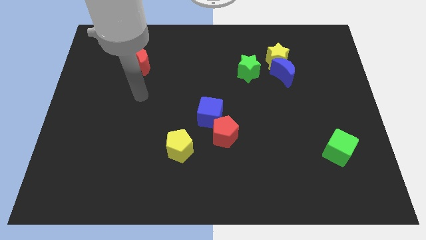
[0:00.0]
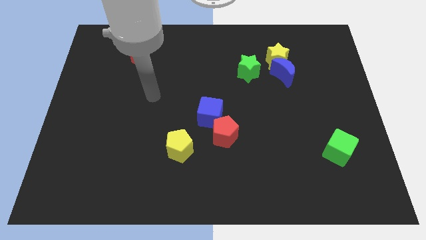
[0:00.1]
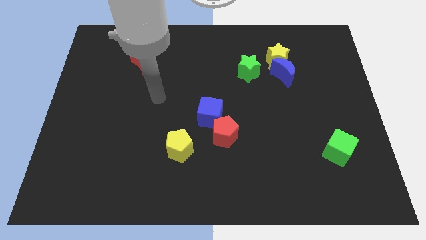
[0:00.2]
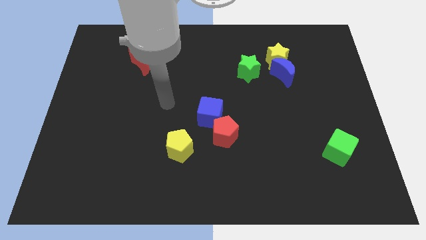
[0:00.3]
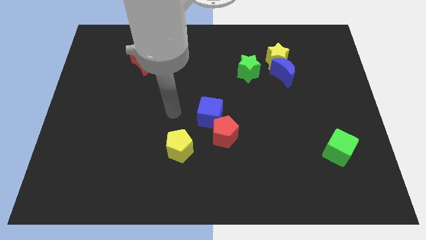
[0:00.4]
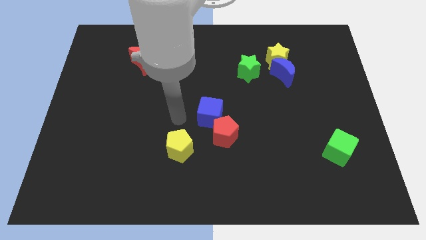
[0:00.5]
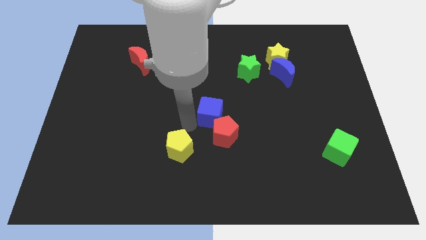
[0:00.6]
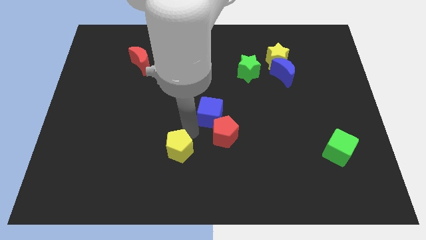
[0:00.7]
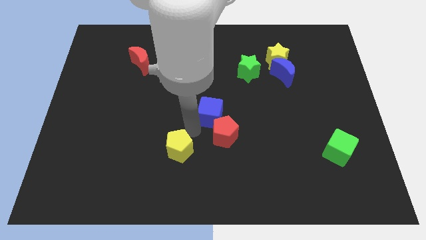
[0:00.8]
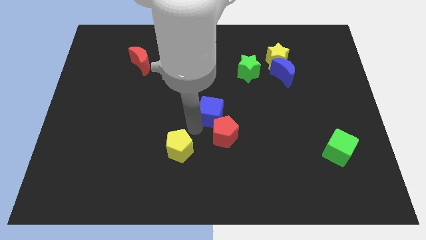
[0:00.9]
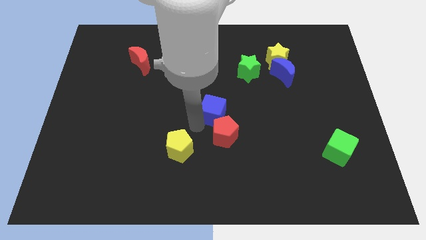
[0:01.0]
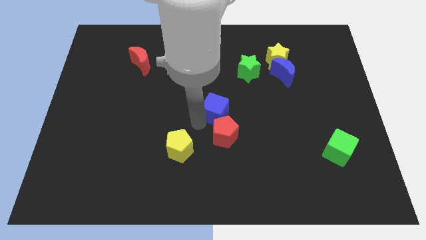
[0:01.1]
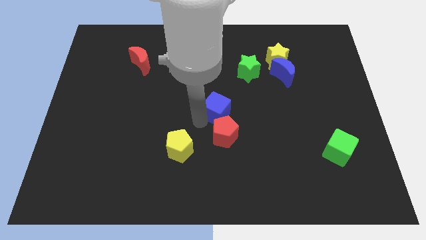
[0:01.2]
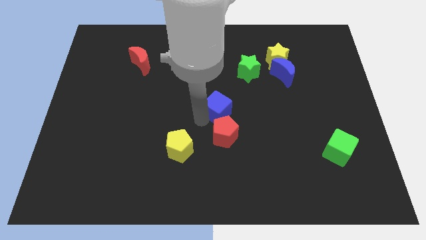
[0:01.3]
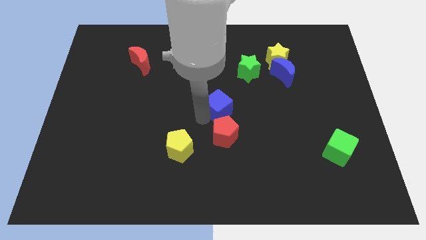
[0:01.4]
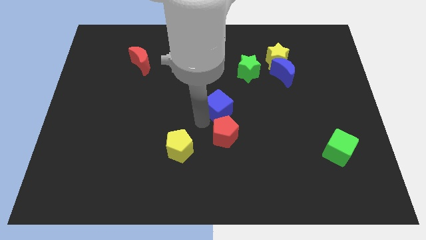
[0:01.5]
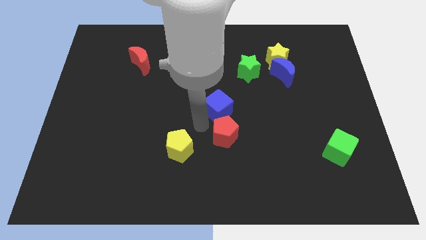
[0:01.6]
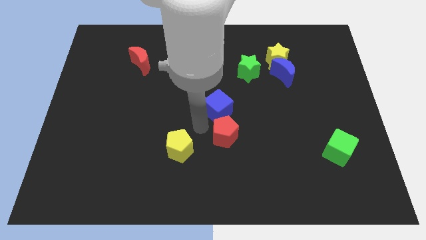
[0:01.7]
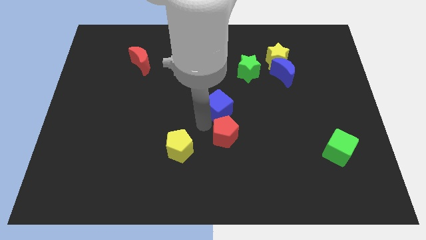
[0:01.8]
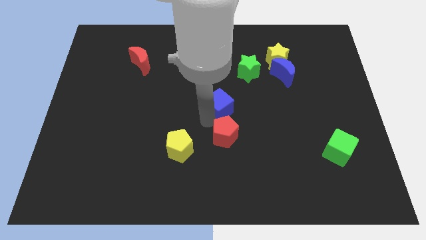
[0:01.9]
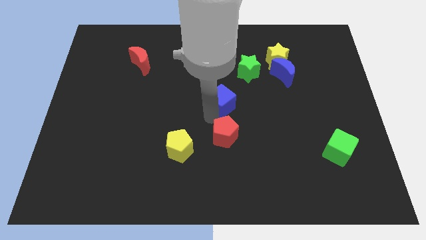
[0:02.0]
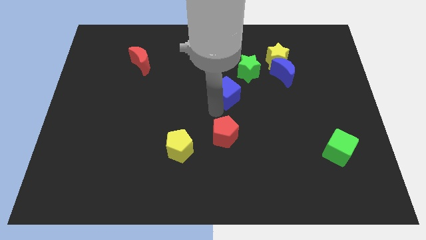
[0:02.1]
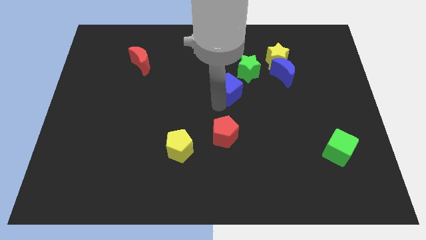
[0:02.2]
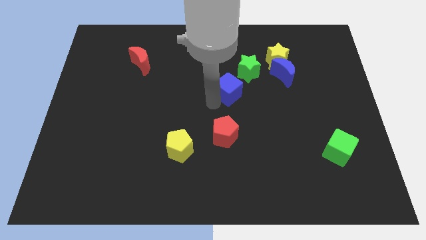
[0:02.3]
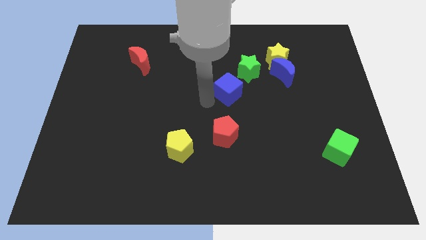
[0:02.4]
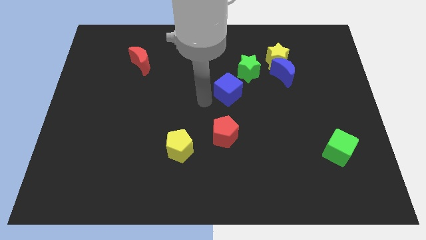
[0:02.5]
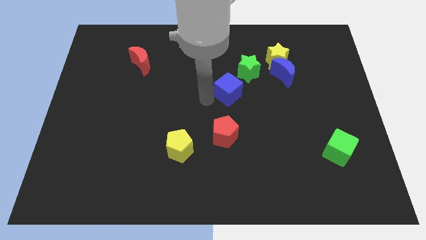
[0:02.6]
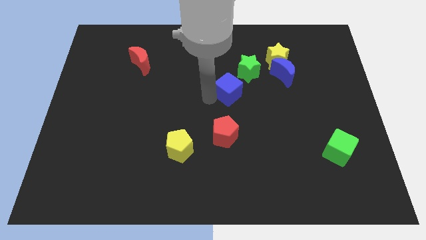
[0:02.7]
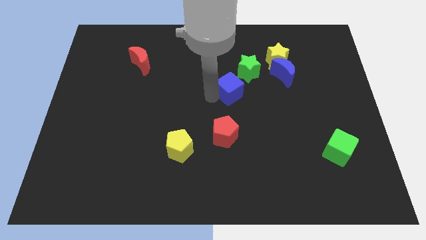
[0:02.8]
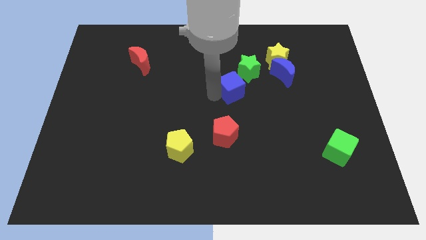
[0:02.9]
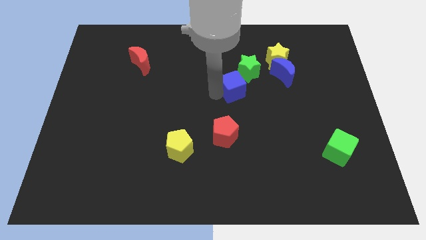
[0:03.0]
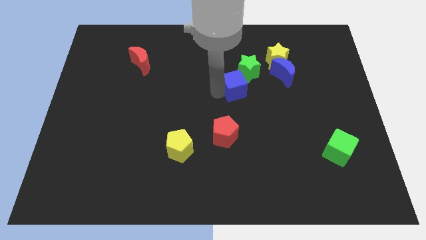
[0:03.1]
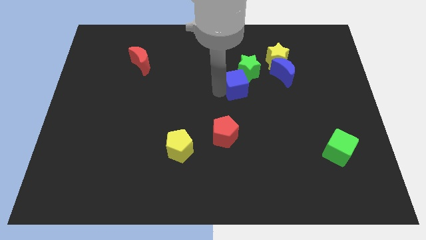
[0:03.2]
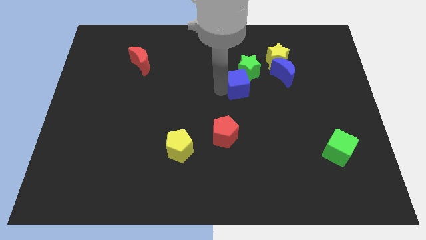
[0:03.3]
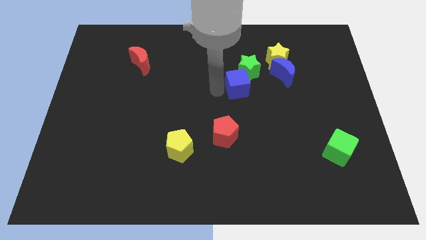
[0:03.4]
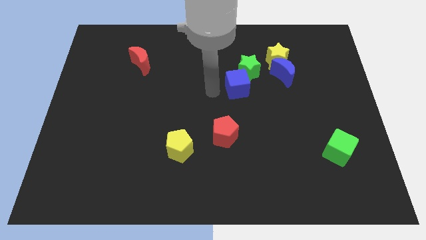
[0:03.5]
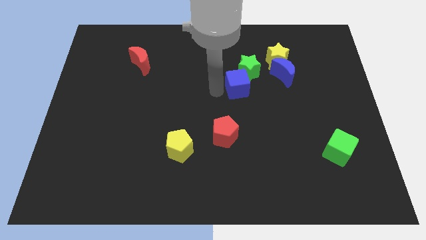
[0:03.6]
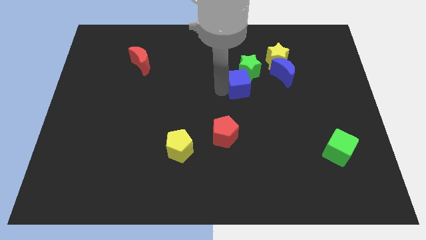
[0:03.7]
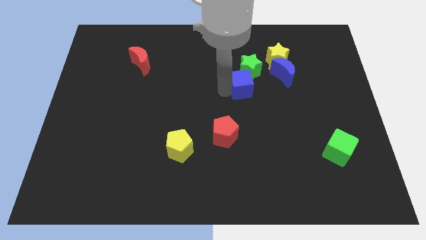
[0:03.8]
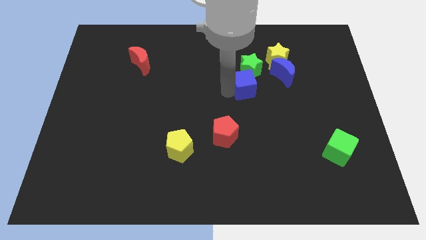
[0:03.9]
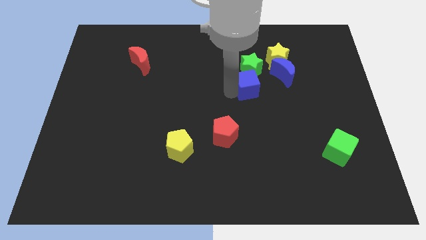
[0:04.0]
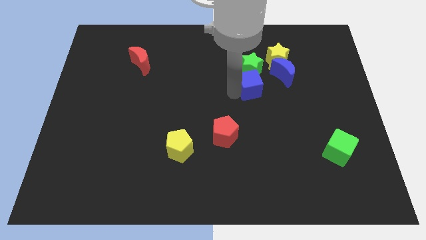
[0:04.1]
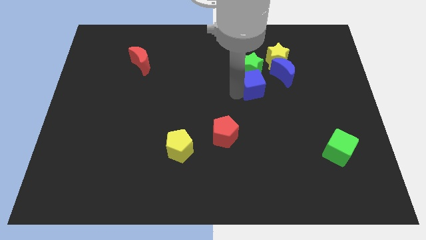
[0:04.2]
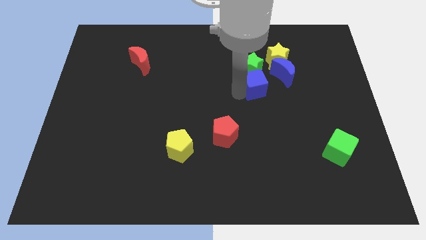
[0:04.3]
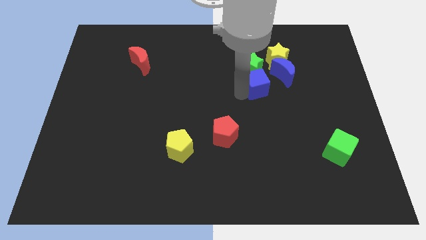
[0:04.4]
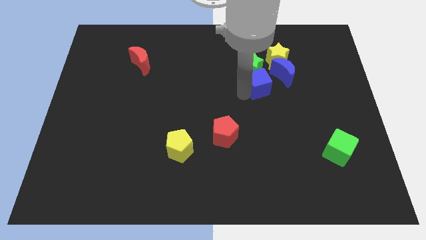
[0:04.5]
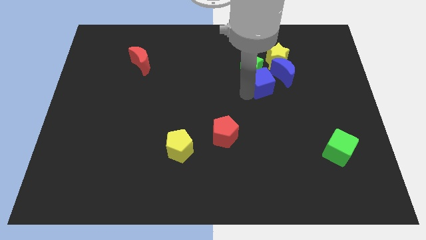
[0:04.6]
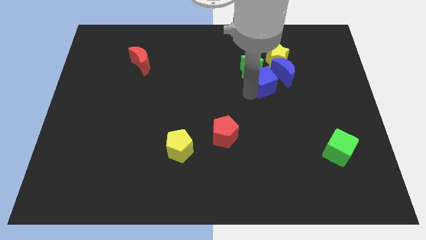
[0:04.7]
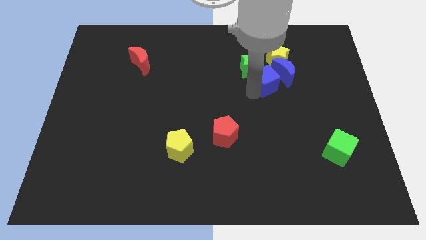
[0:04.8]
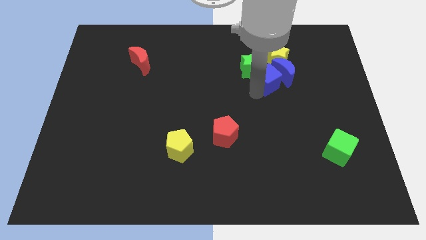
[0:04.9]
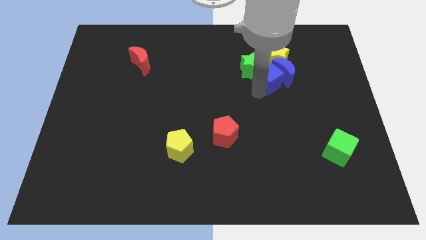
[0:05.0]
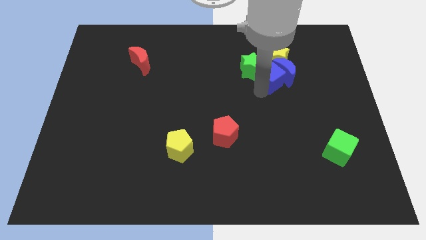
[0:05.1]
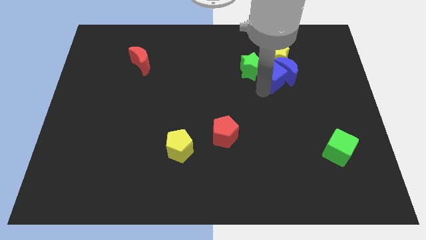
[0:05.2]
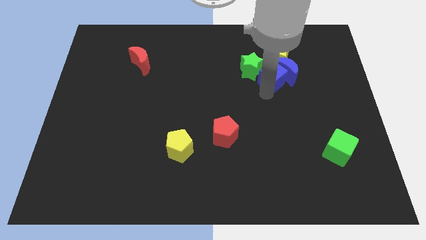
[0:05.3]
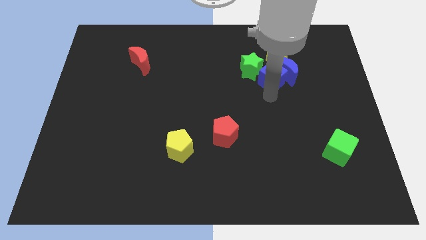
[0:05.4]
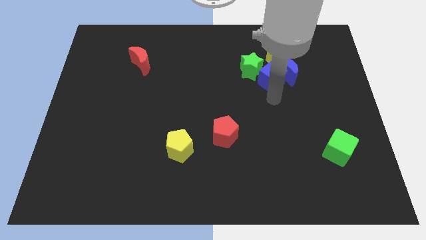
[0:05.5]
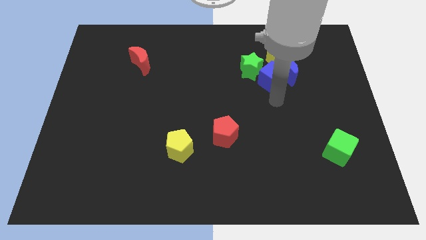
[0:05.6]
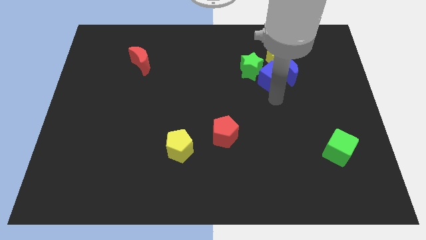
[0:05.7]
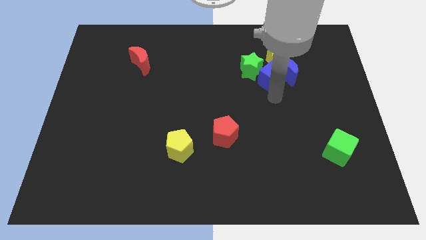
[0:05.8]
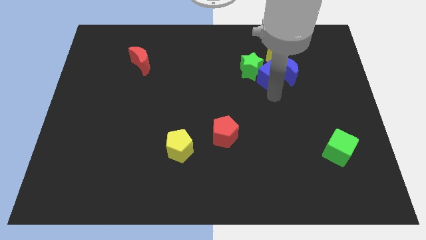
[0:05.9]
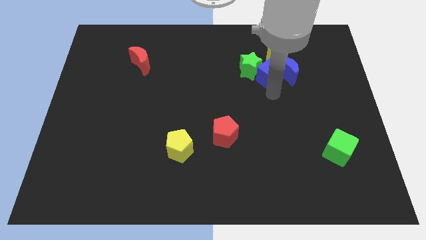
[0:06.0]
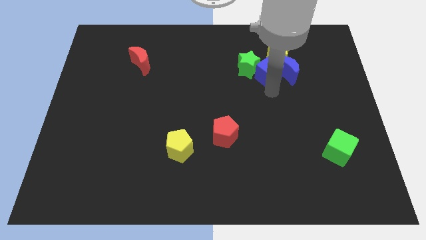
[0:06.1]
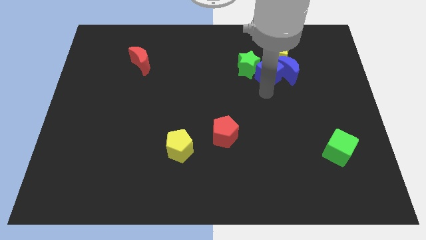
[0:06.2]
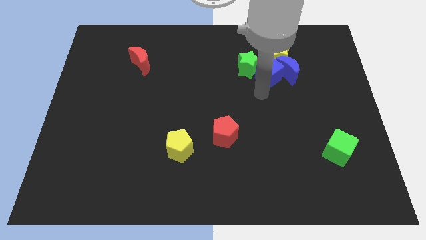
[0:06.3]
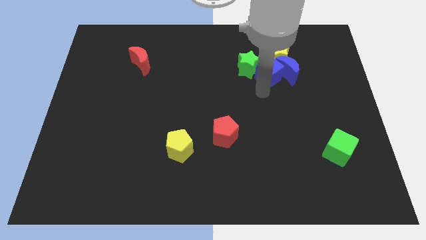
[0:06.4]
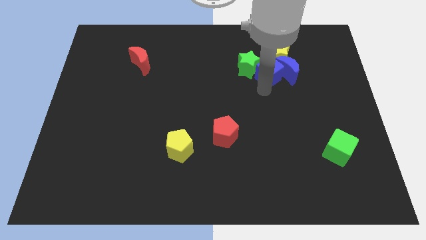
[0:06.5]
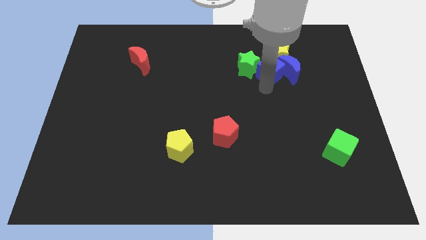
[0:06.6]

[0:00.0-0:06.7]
push the blue cube next to the yellow star

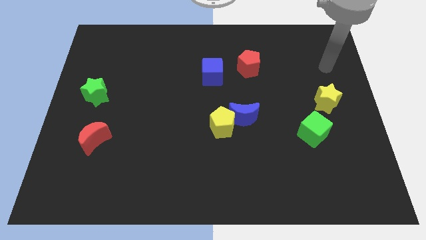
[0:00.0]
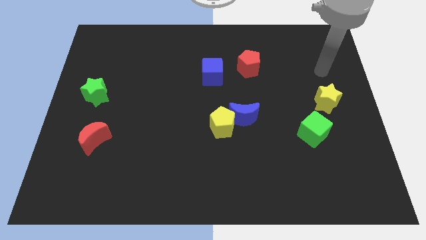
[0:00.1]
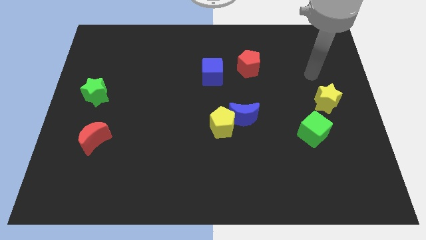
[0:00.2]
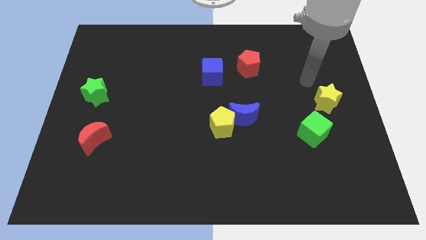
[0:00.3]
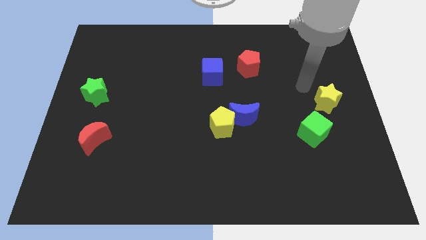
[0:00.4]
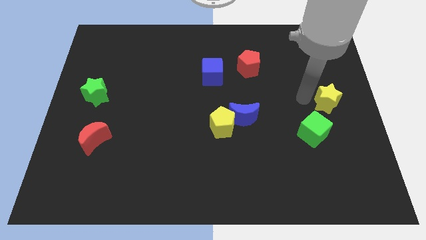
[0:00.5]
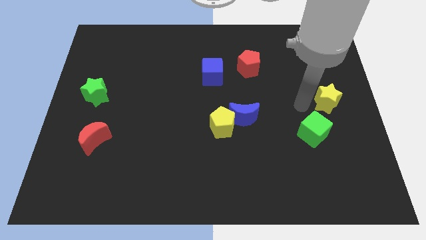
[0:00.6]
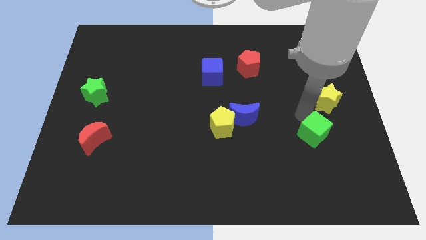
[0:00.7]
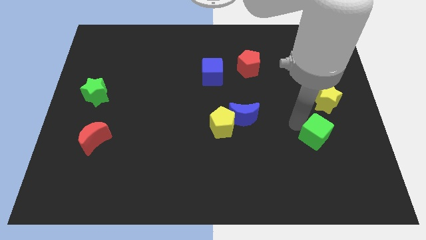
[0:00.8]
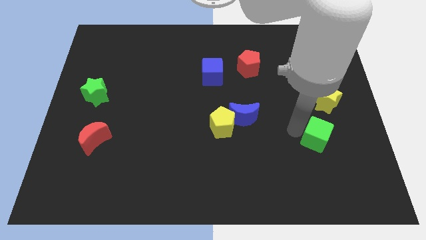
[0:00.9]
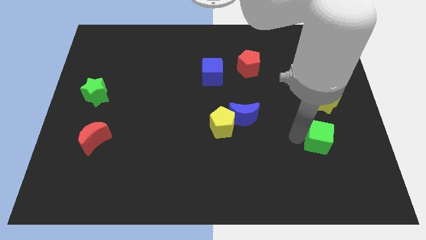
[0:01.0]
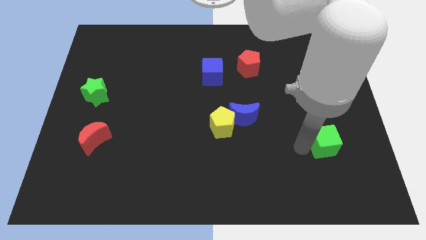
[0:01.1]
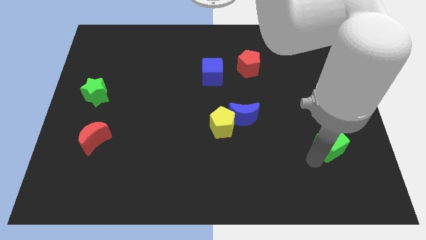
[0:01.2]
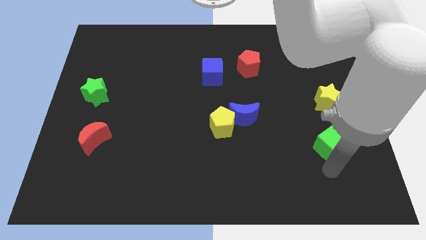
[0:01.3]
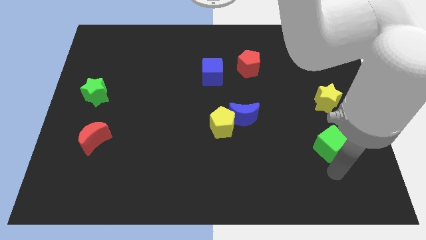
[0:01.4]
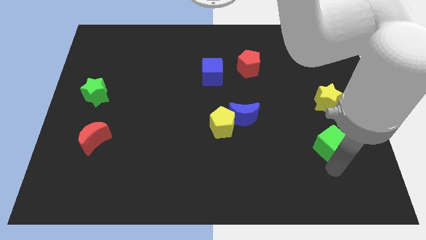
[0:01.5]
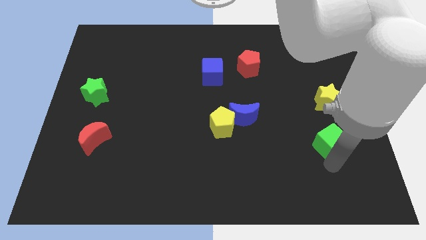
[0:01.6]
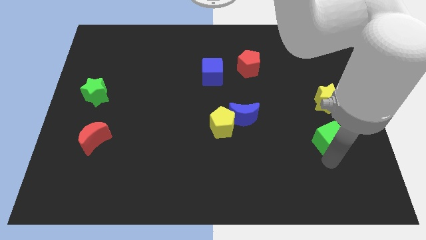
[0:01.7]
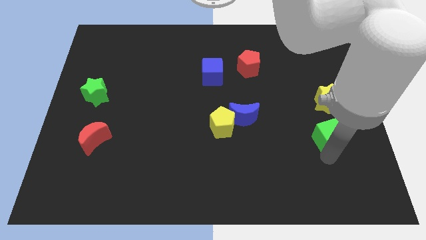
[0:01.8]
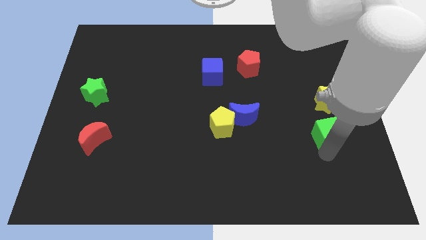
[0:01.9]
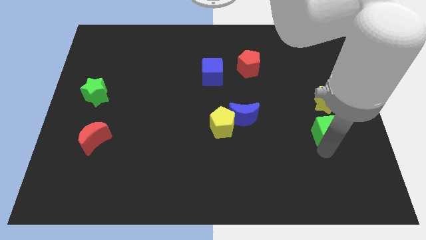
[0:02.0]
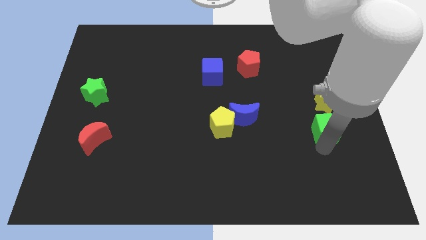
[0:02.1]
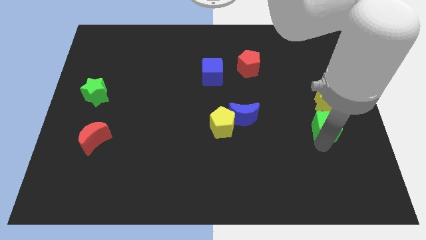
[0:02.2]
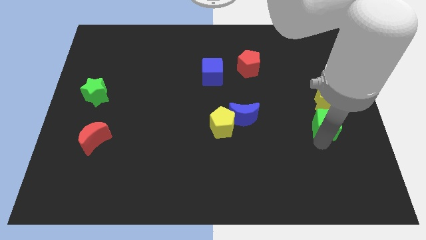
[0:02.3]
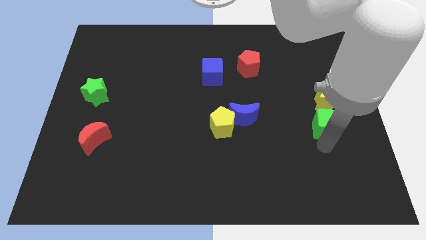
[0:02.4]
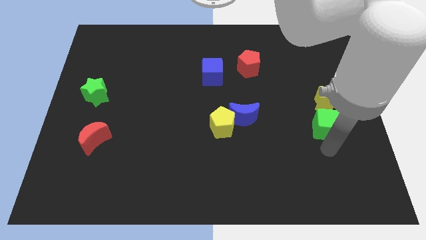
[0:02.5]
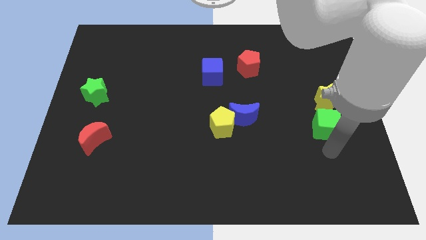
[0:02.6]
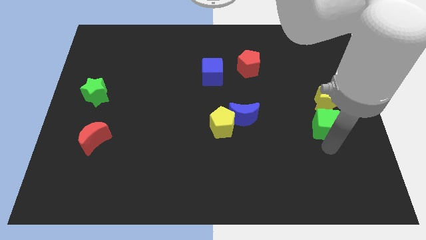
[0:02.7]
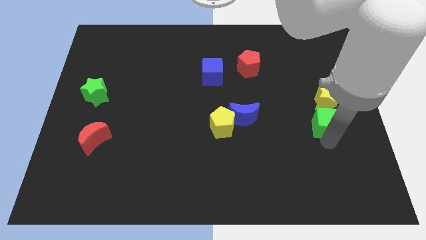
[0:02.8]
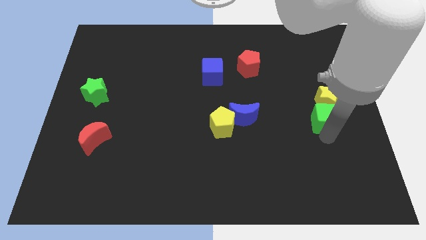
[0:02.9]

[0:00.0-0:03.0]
push the green cube next to the yellow star
